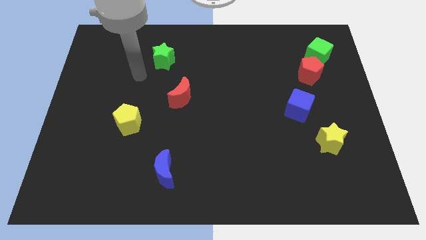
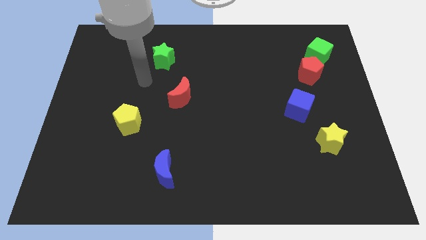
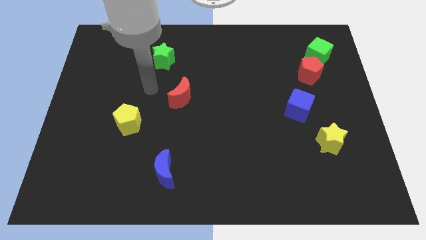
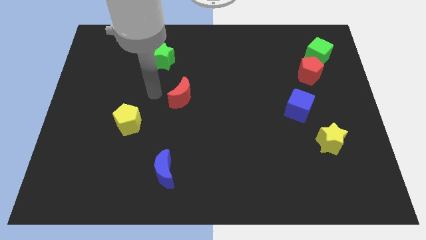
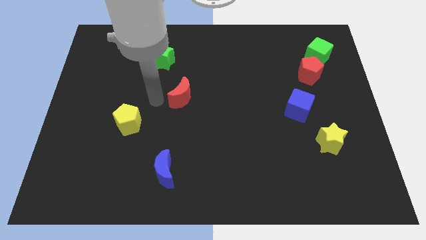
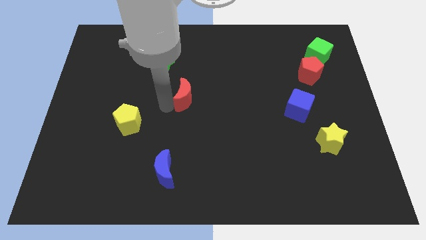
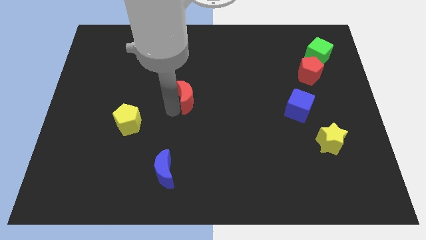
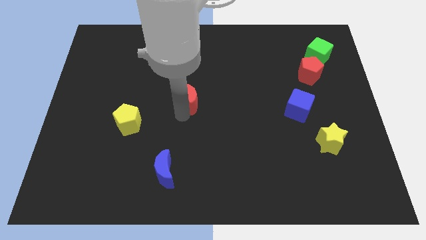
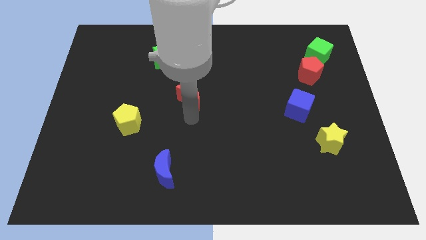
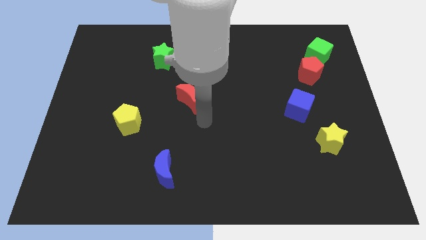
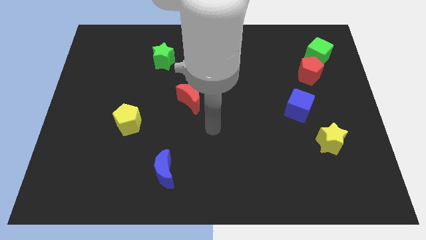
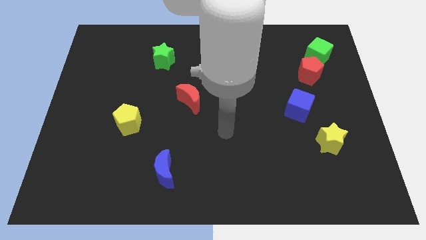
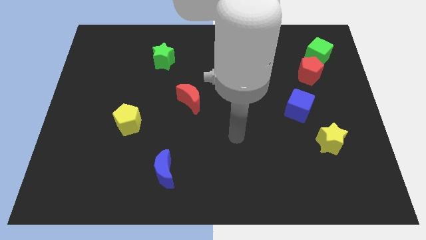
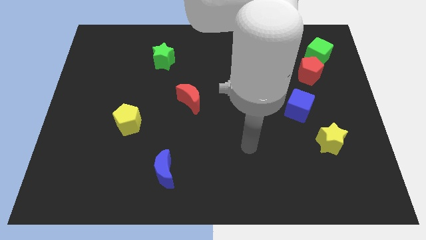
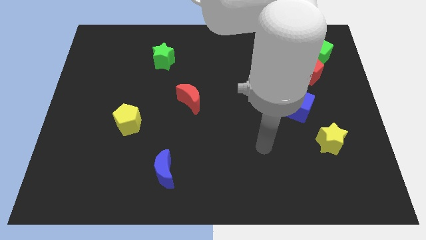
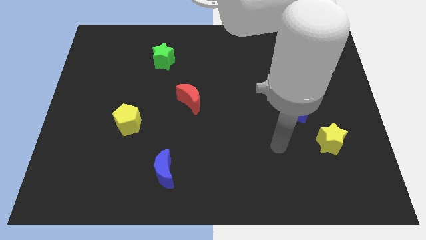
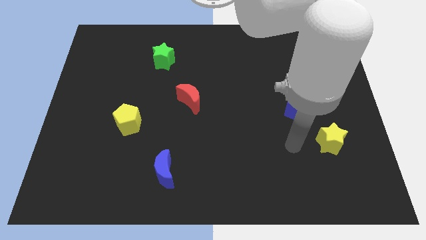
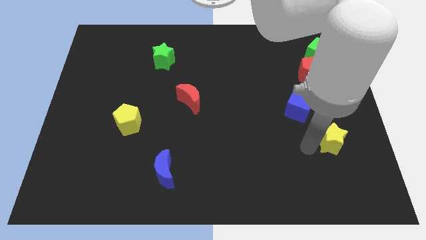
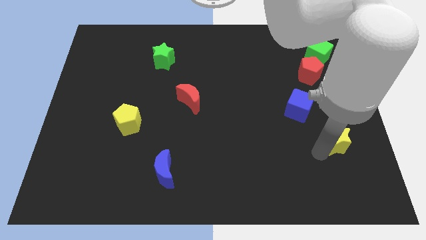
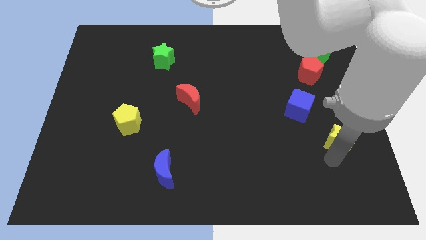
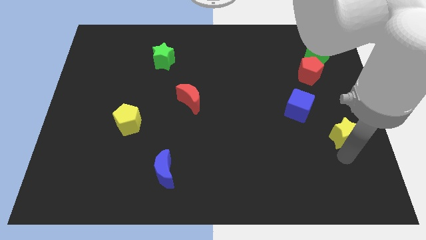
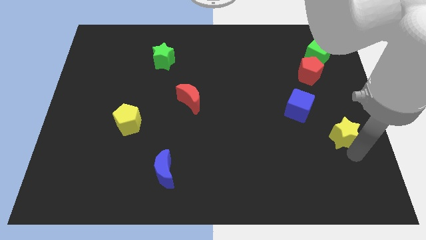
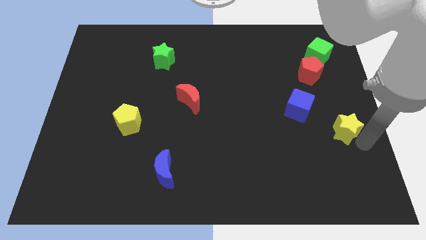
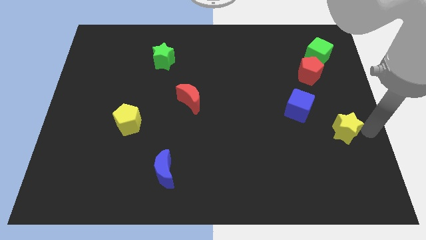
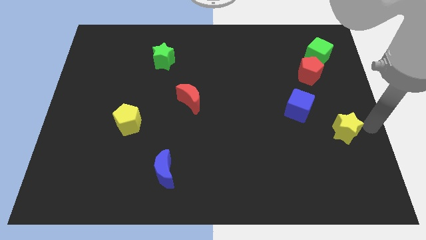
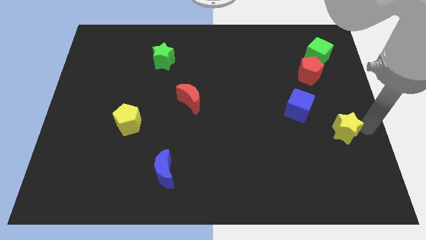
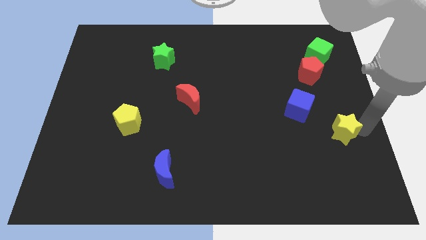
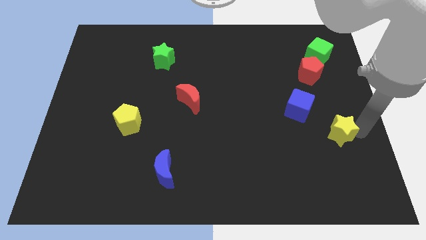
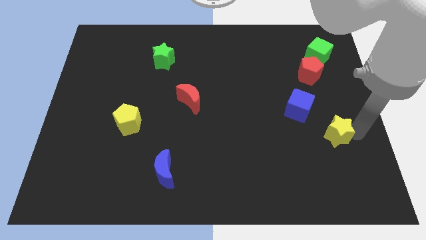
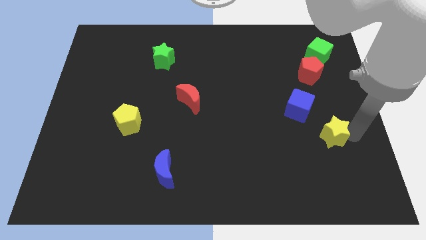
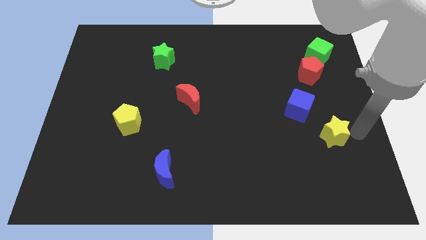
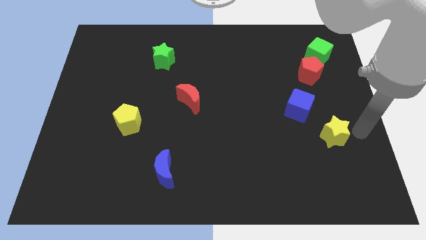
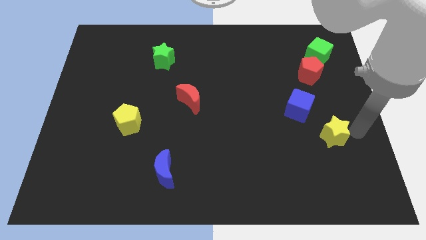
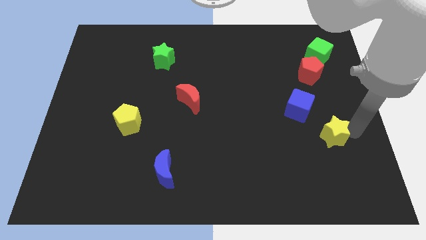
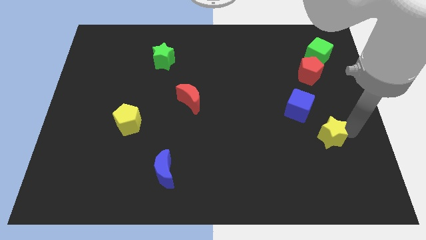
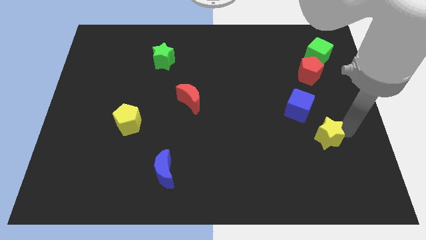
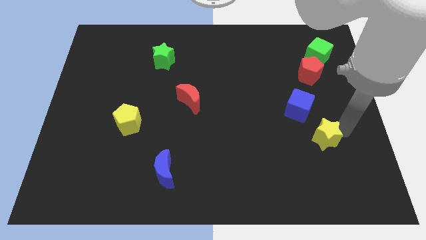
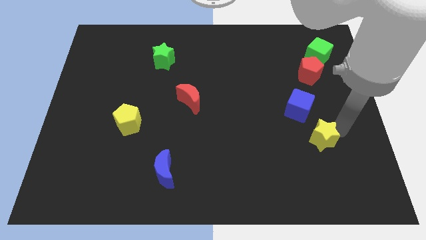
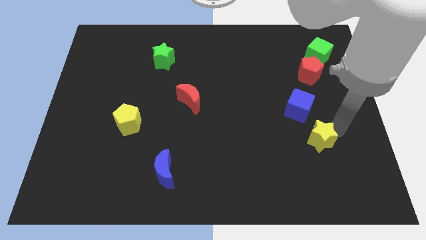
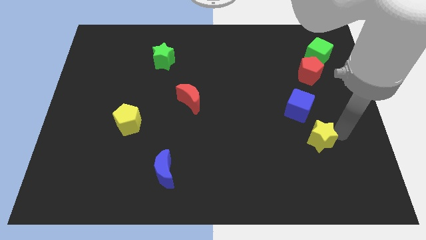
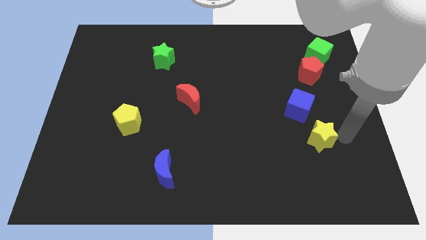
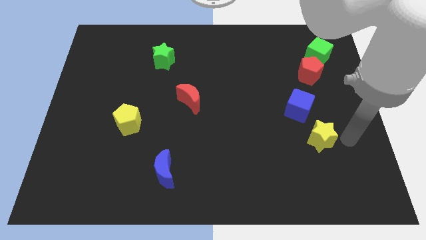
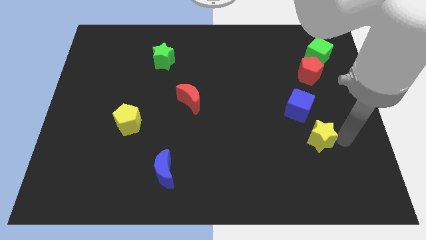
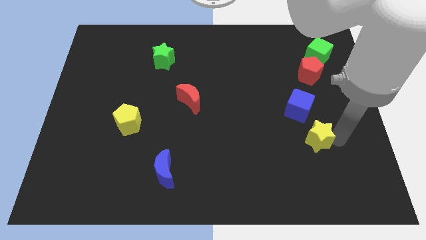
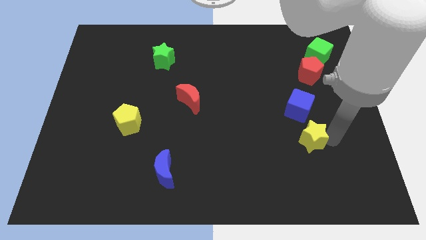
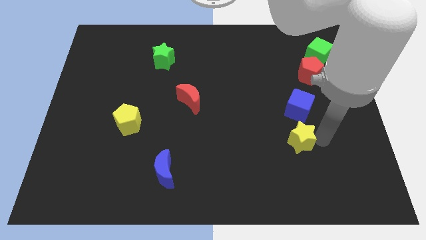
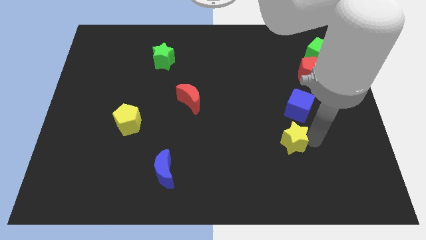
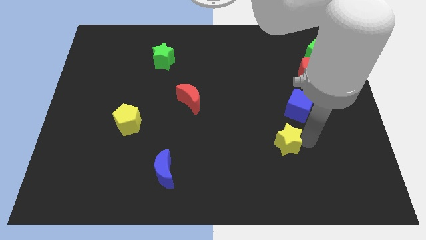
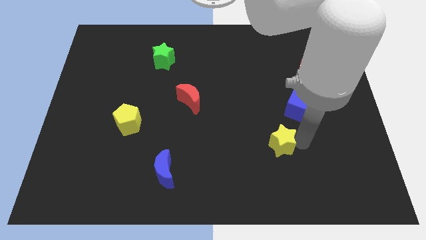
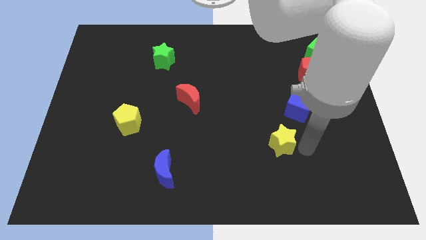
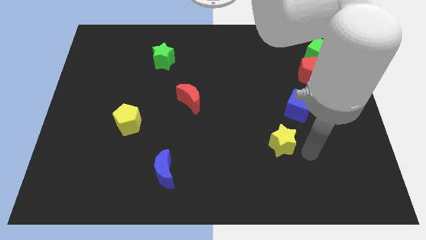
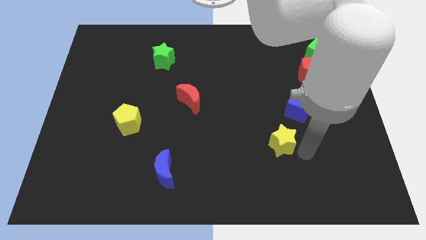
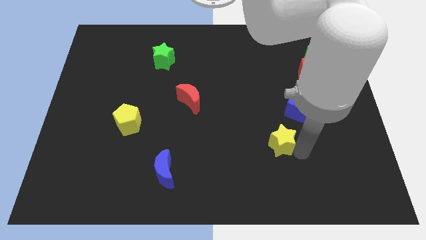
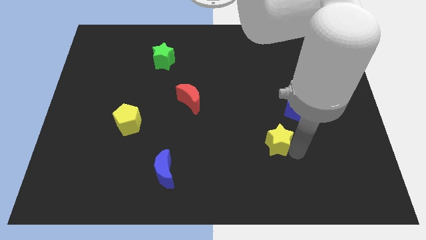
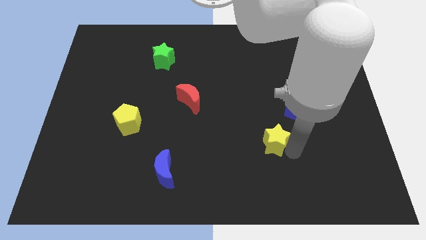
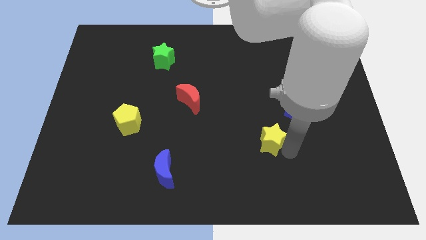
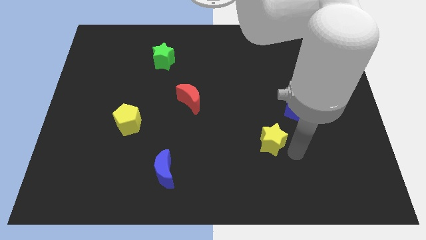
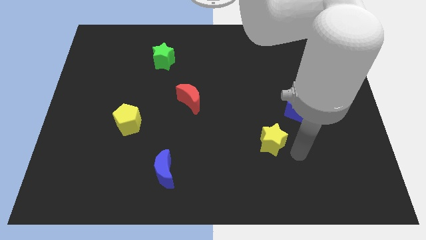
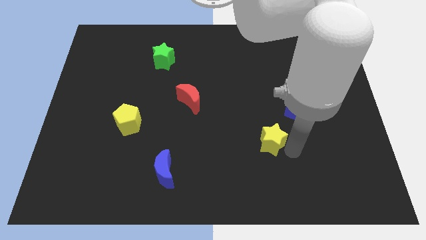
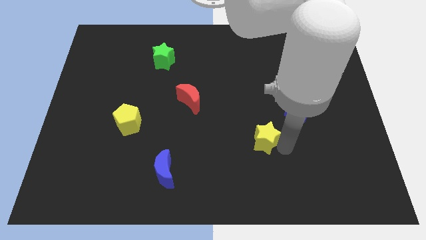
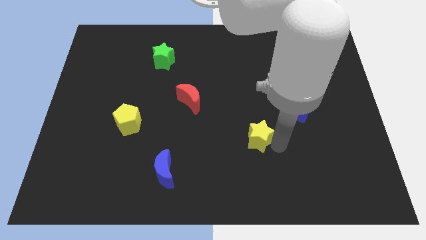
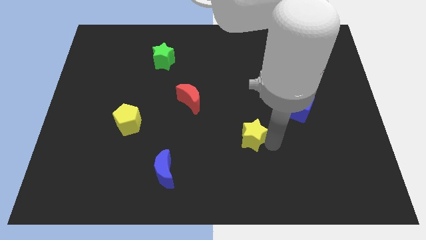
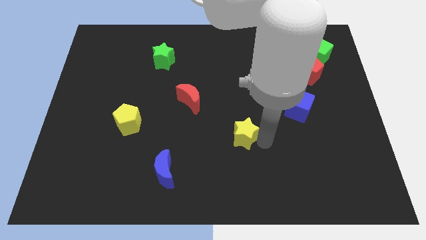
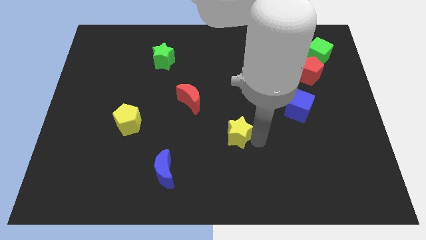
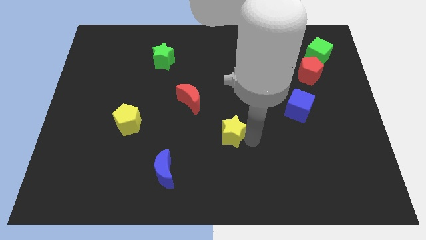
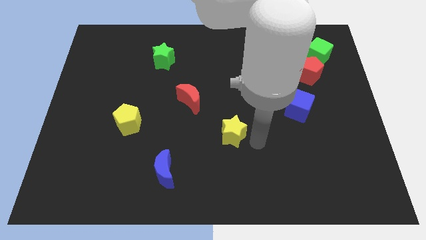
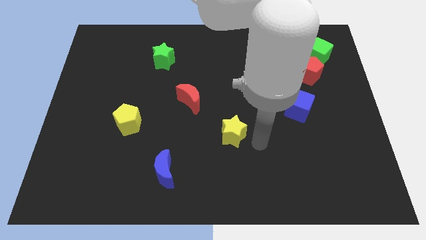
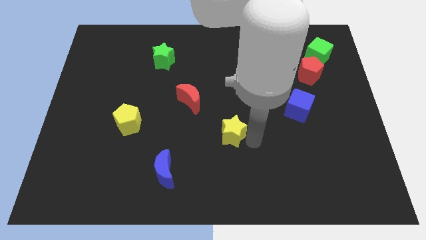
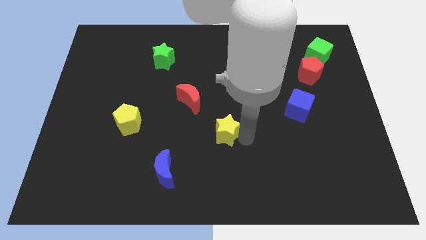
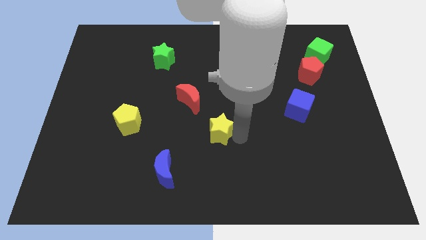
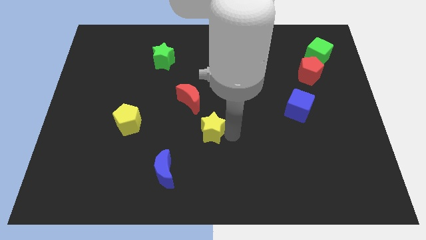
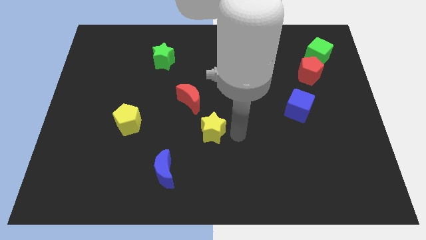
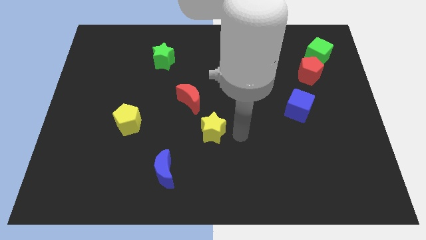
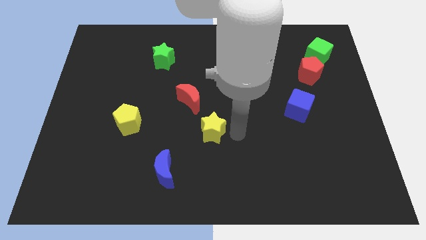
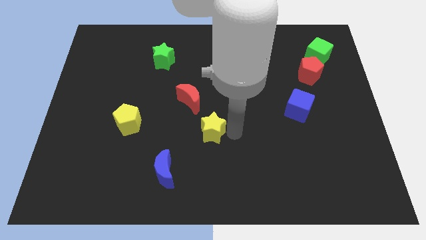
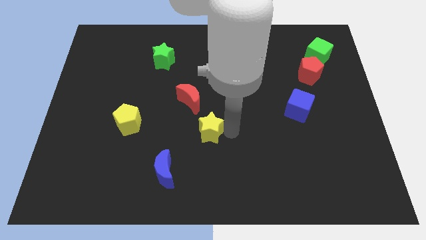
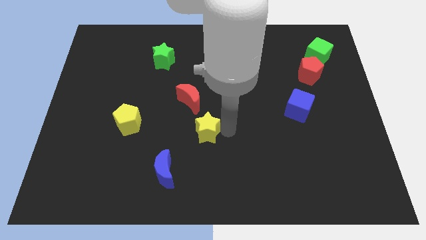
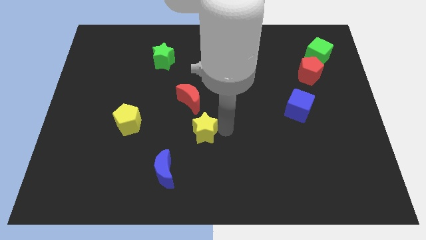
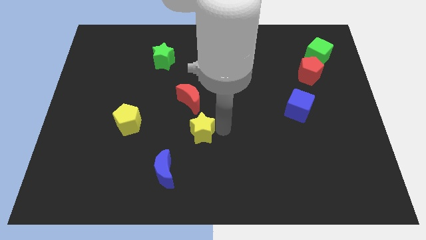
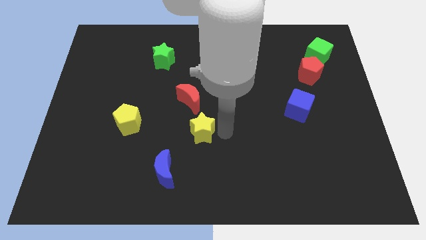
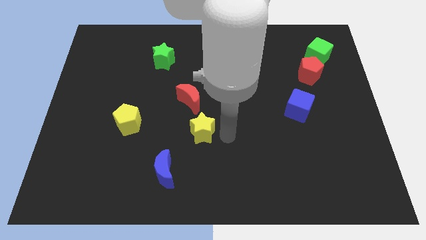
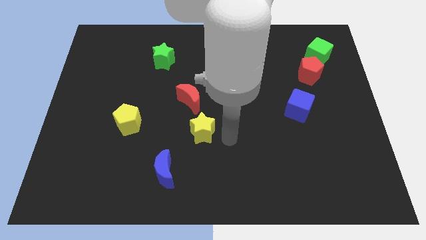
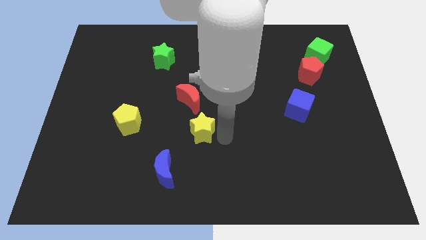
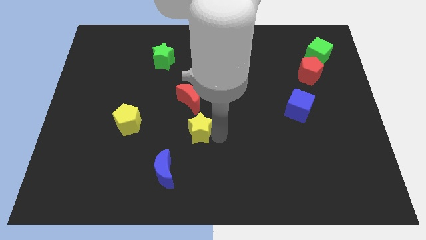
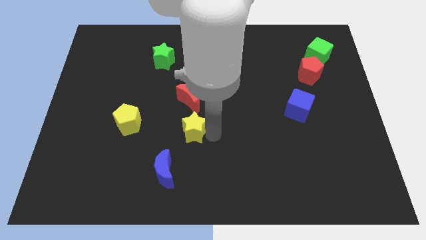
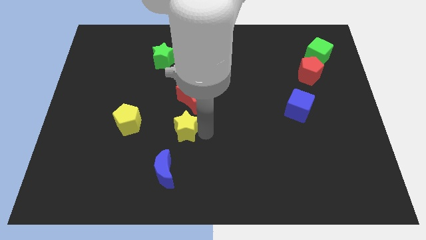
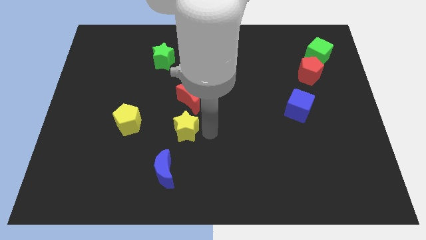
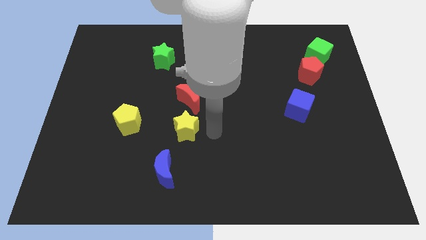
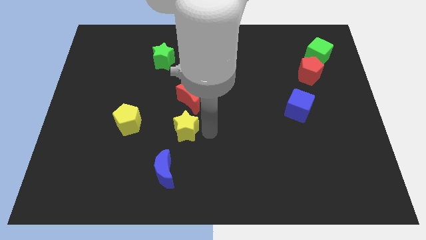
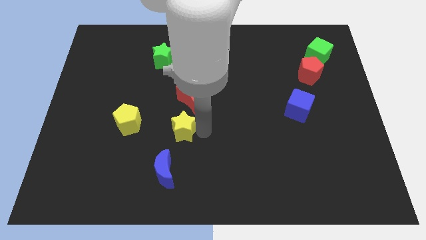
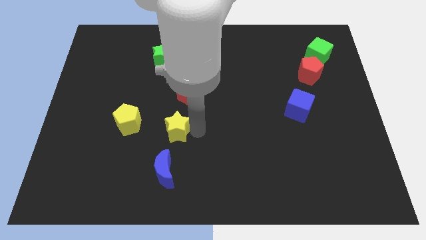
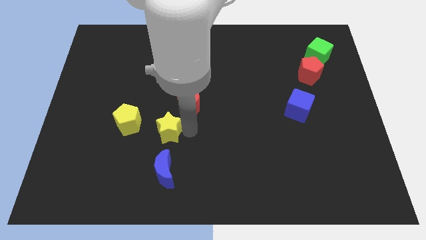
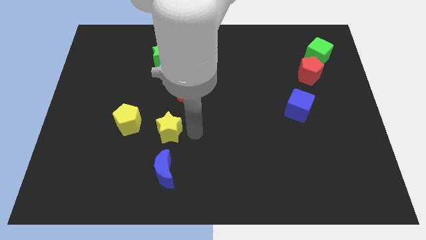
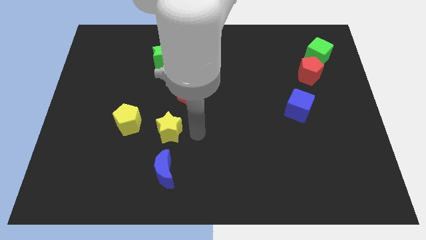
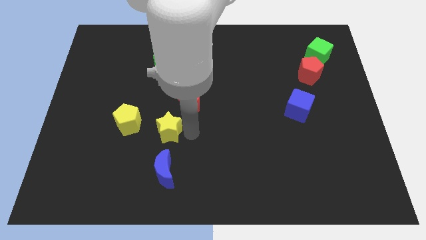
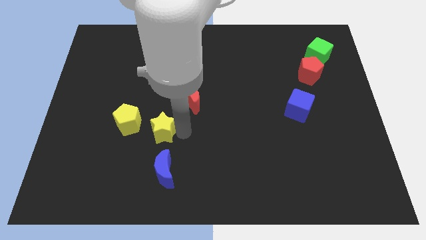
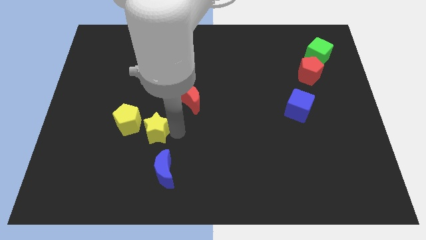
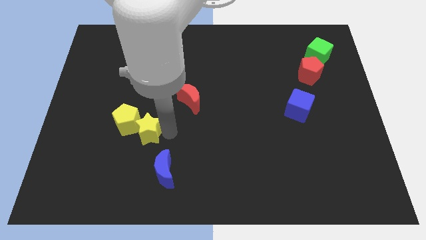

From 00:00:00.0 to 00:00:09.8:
push the yellow star to the yellow pentagon
